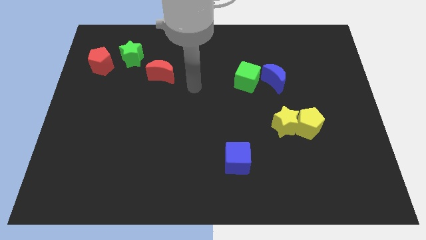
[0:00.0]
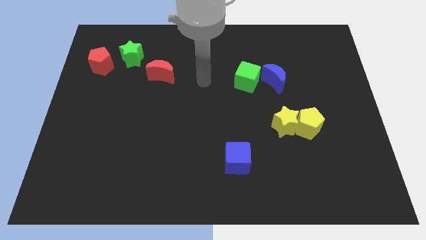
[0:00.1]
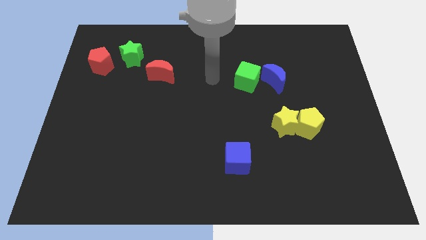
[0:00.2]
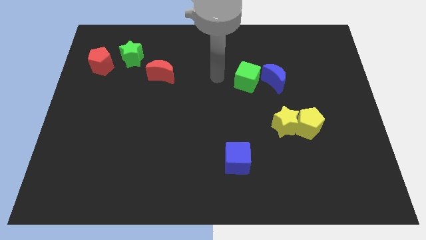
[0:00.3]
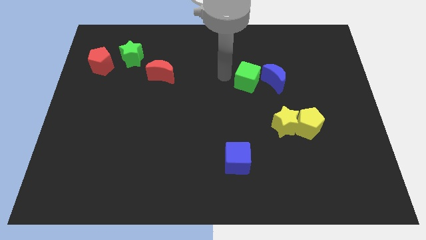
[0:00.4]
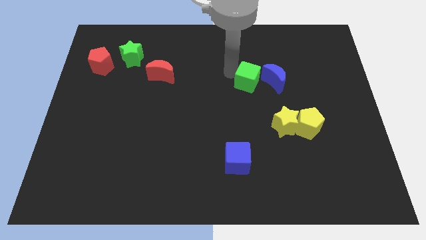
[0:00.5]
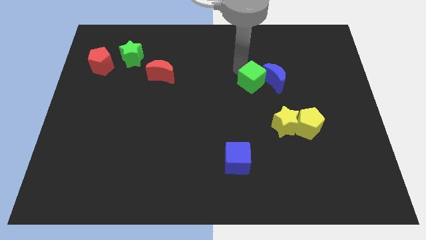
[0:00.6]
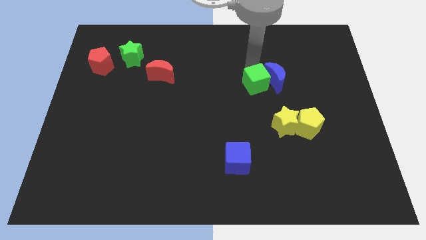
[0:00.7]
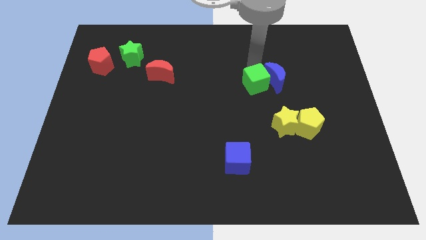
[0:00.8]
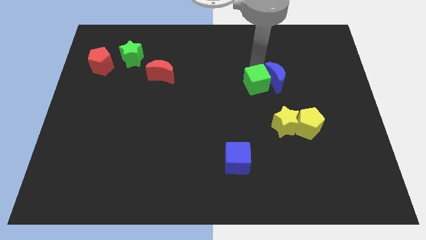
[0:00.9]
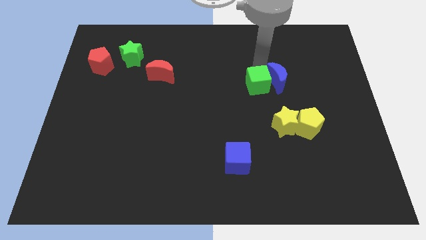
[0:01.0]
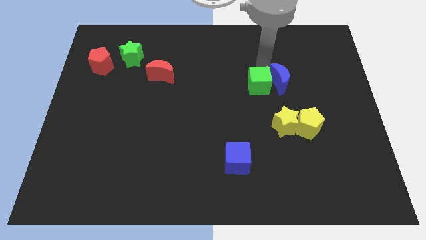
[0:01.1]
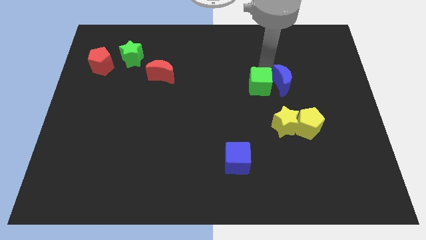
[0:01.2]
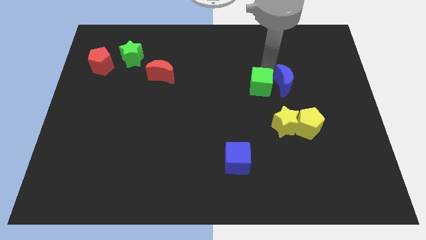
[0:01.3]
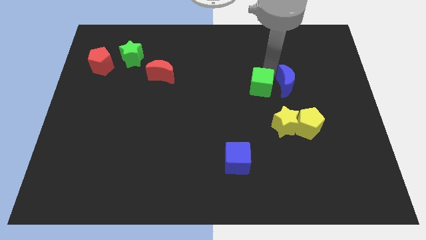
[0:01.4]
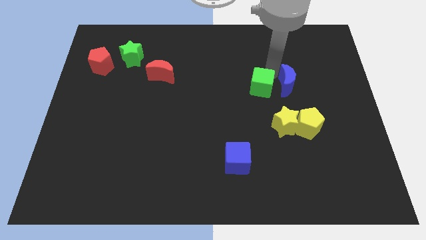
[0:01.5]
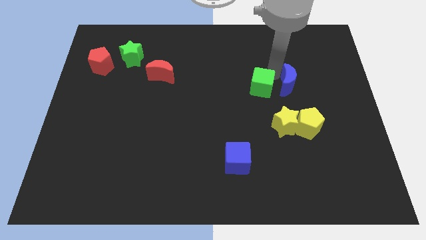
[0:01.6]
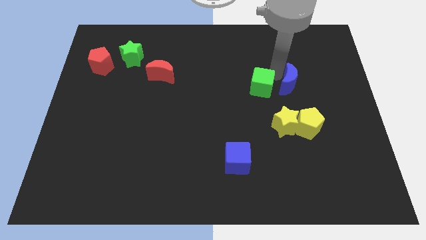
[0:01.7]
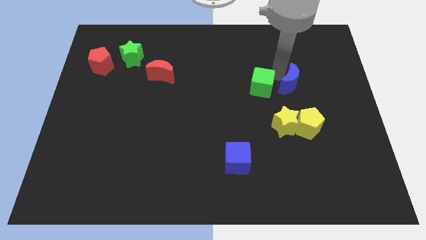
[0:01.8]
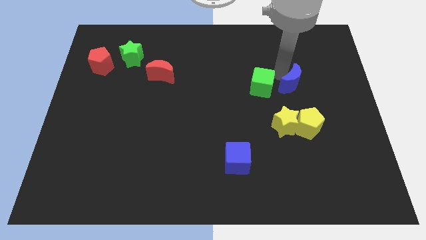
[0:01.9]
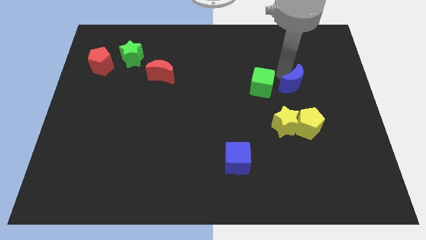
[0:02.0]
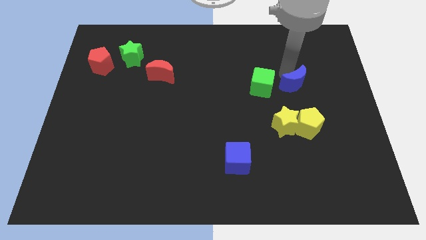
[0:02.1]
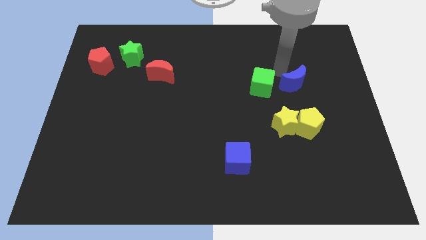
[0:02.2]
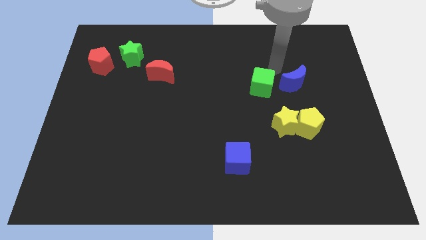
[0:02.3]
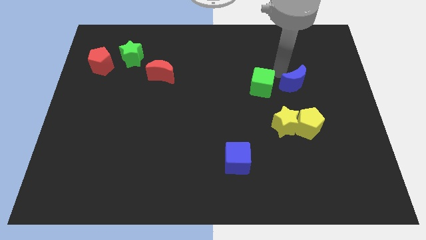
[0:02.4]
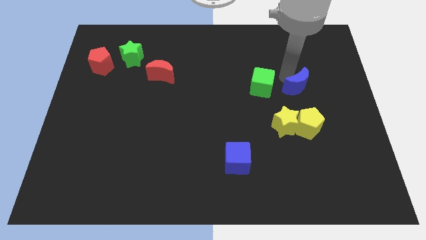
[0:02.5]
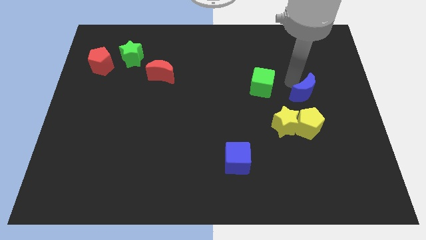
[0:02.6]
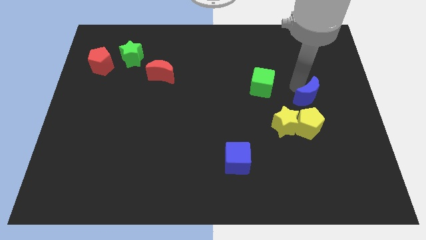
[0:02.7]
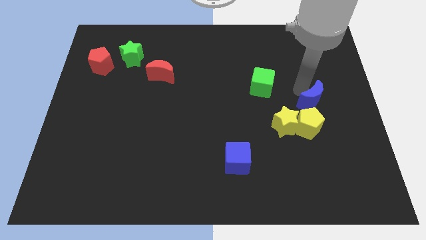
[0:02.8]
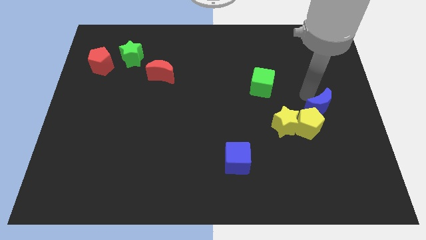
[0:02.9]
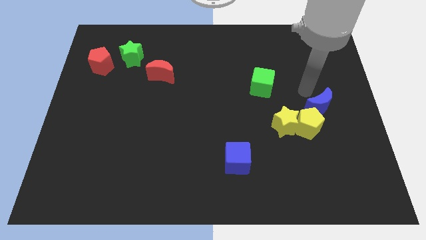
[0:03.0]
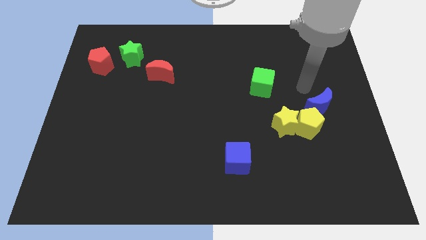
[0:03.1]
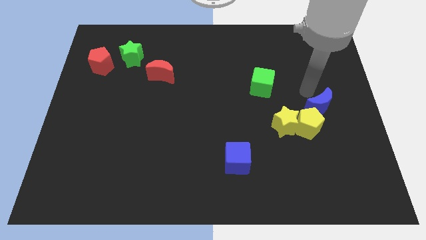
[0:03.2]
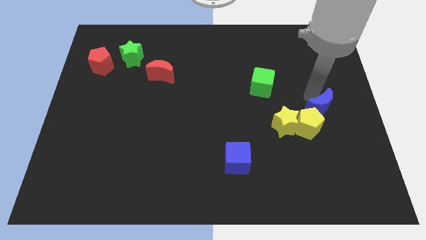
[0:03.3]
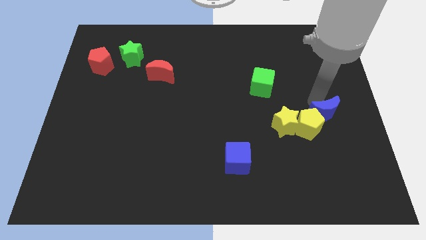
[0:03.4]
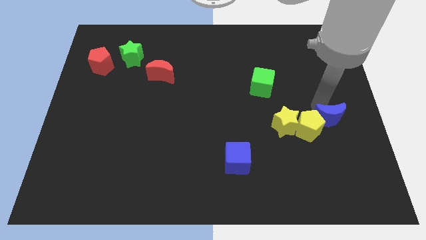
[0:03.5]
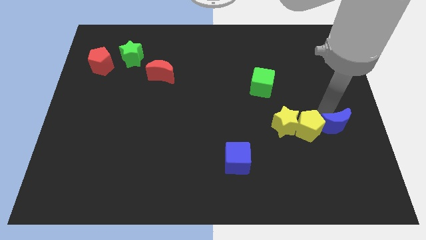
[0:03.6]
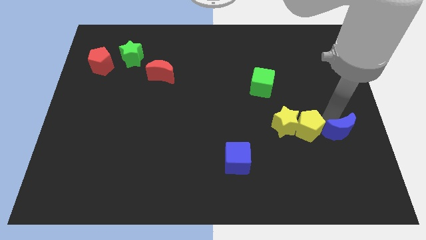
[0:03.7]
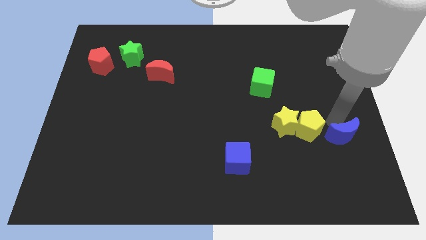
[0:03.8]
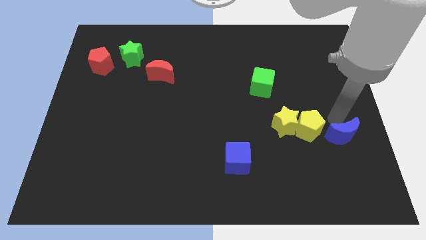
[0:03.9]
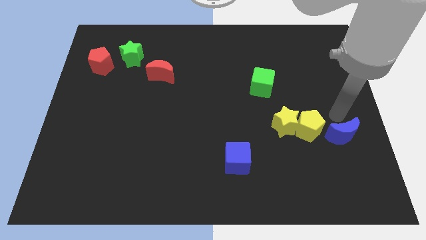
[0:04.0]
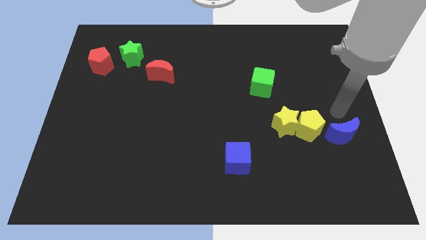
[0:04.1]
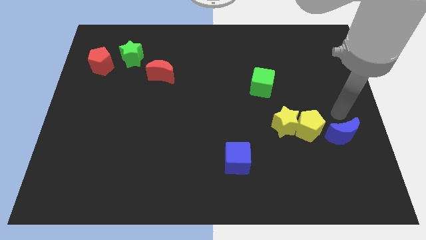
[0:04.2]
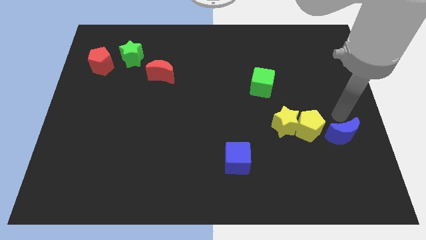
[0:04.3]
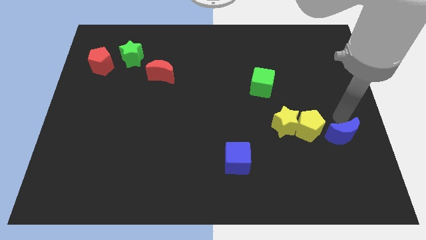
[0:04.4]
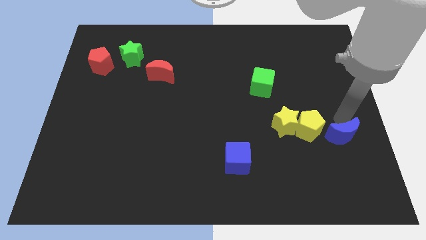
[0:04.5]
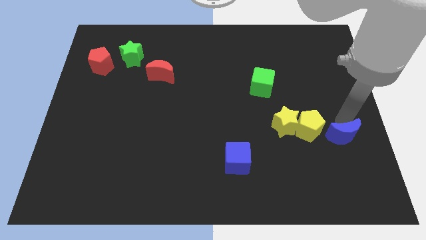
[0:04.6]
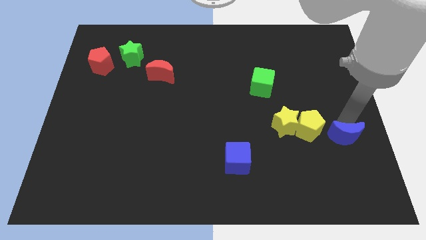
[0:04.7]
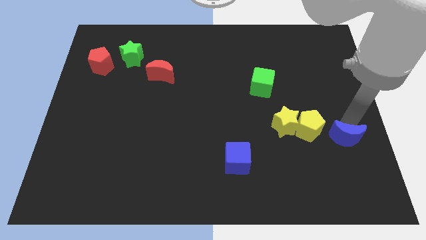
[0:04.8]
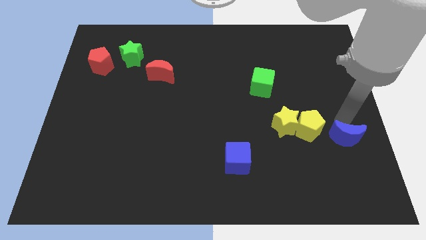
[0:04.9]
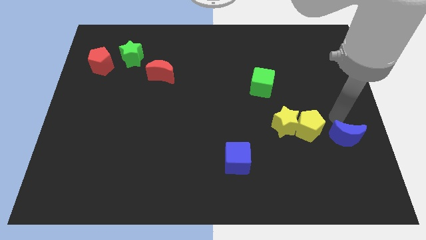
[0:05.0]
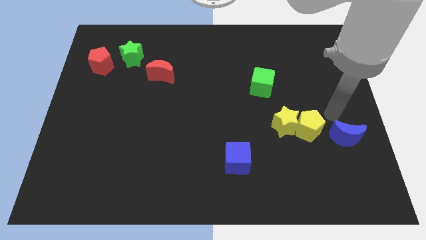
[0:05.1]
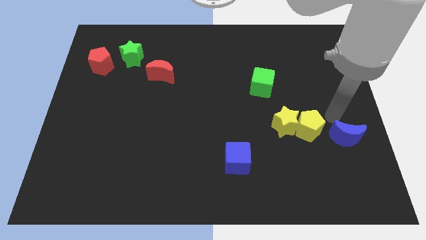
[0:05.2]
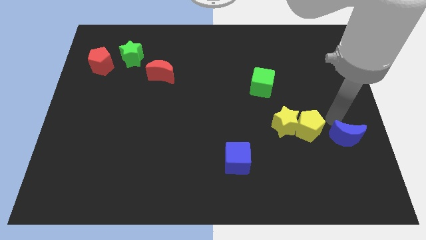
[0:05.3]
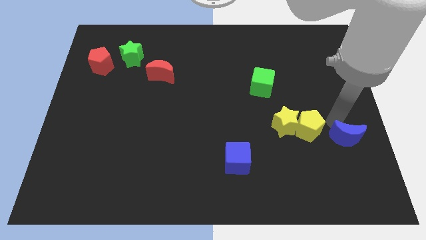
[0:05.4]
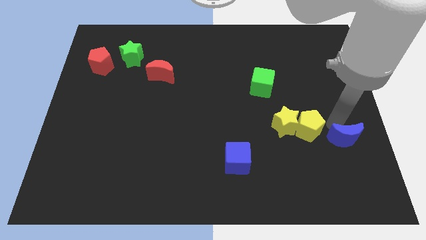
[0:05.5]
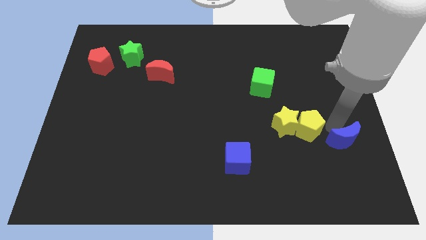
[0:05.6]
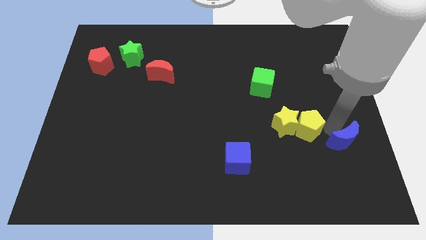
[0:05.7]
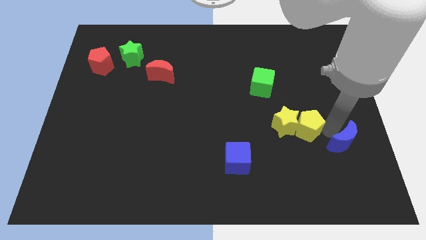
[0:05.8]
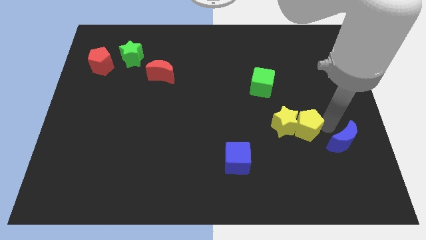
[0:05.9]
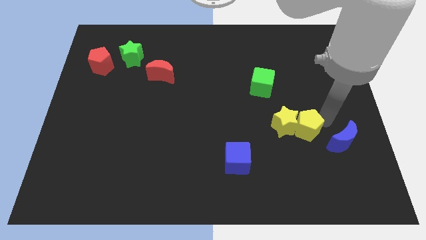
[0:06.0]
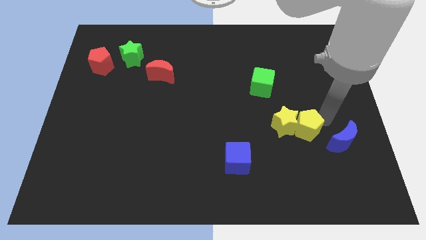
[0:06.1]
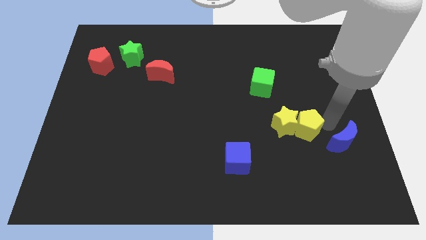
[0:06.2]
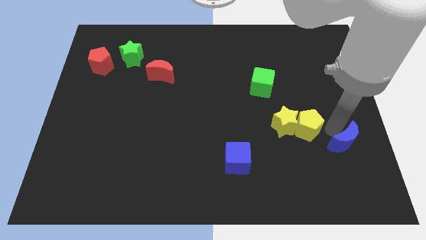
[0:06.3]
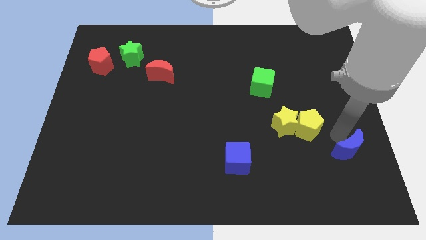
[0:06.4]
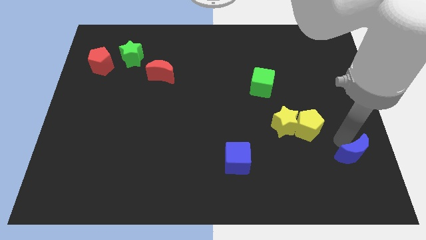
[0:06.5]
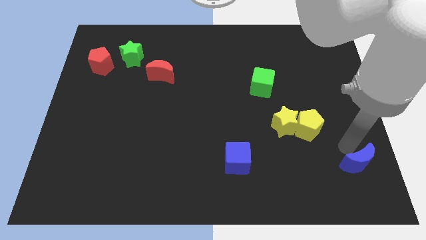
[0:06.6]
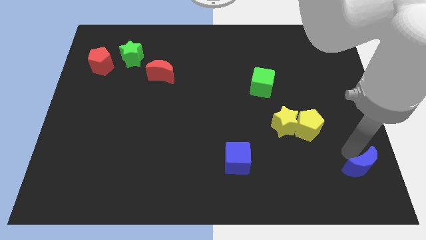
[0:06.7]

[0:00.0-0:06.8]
slide the blue moon to the lower right corner
